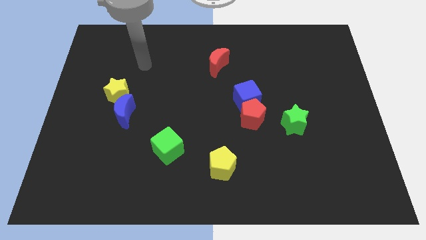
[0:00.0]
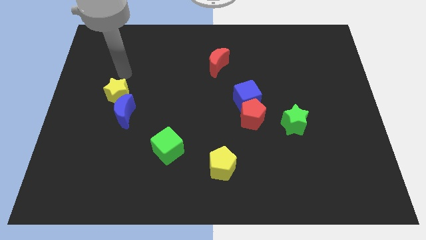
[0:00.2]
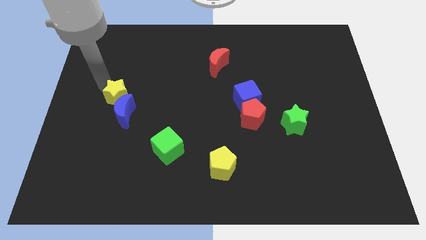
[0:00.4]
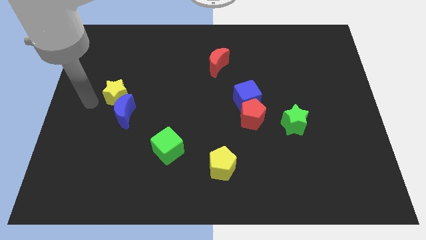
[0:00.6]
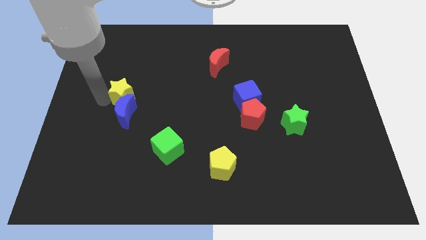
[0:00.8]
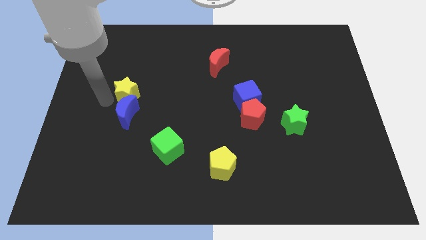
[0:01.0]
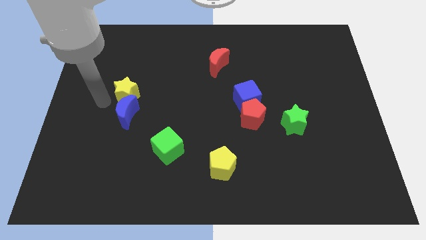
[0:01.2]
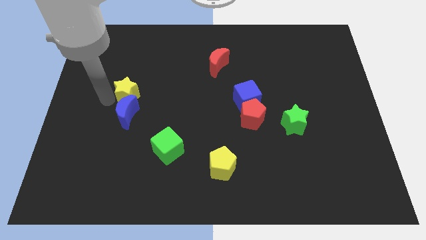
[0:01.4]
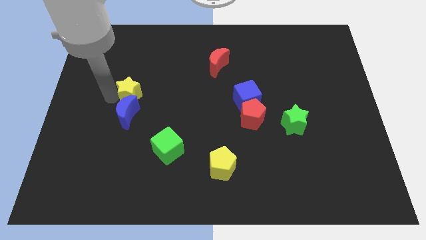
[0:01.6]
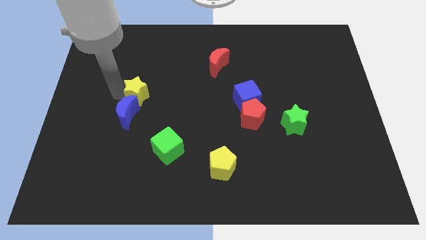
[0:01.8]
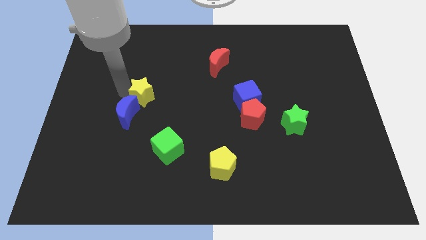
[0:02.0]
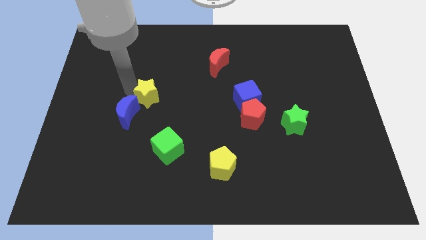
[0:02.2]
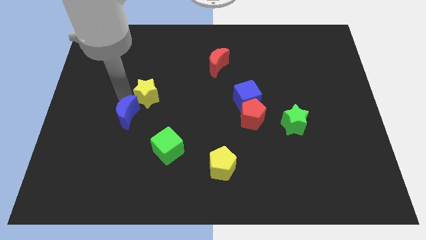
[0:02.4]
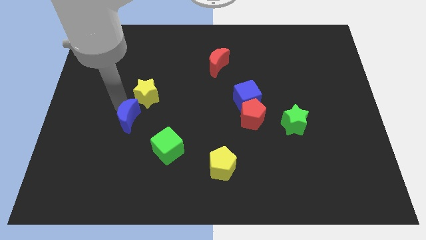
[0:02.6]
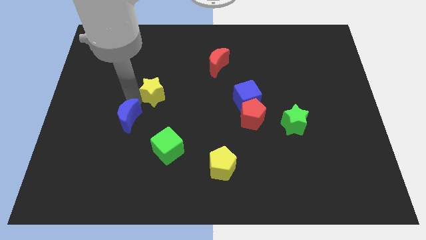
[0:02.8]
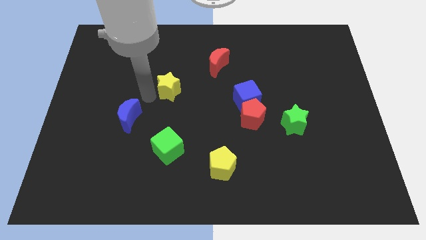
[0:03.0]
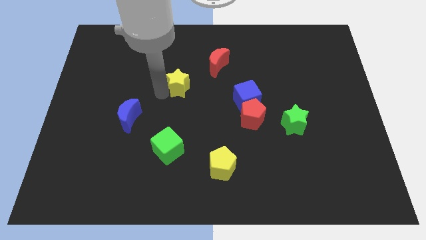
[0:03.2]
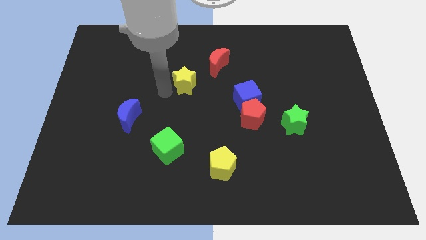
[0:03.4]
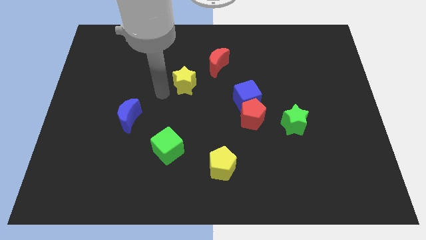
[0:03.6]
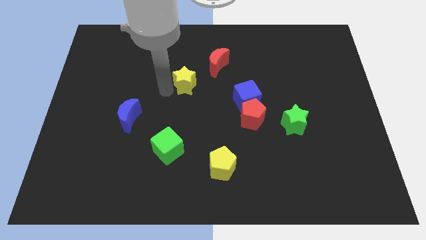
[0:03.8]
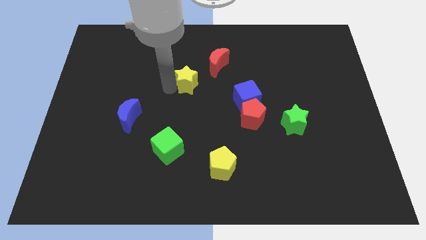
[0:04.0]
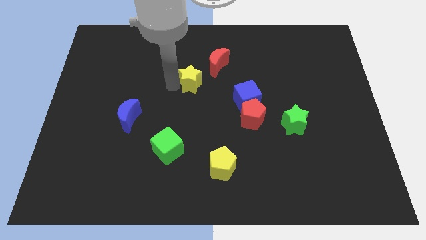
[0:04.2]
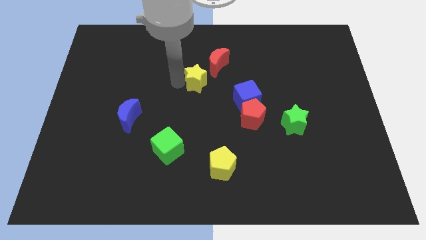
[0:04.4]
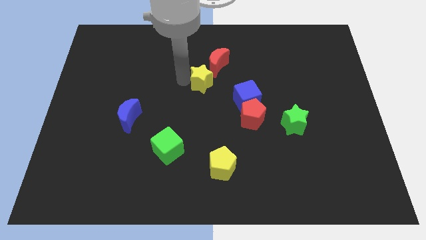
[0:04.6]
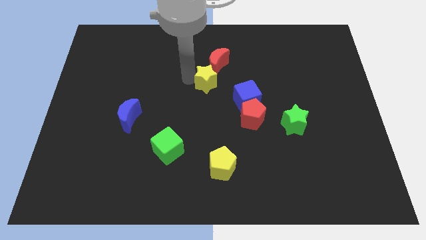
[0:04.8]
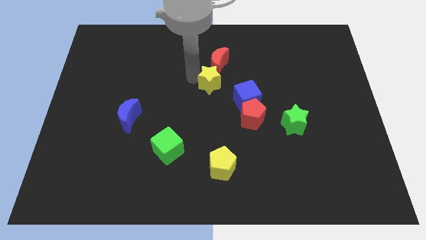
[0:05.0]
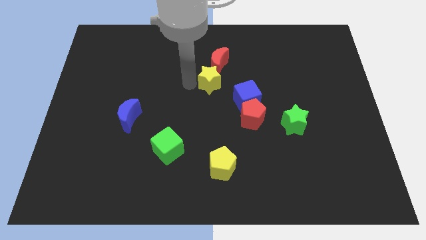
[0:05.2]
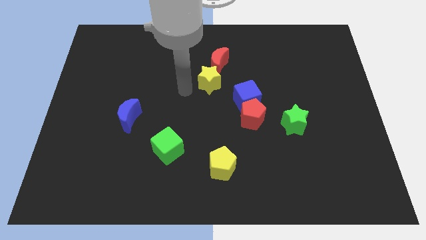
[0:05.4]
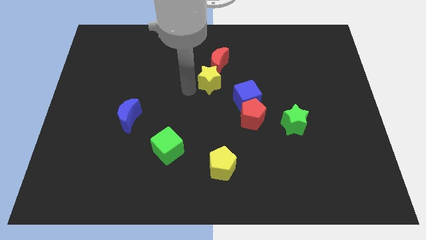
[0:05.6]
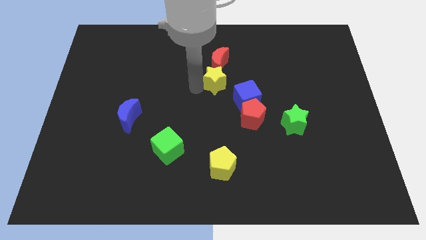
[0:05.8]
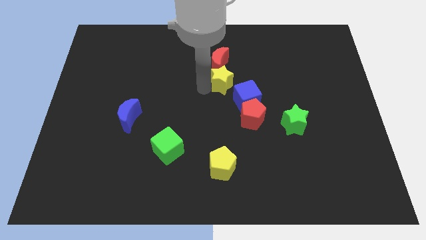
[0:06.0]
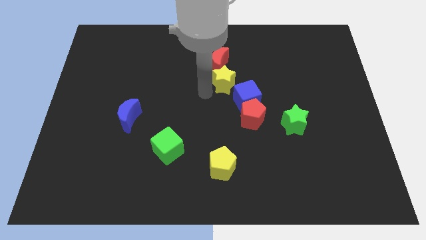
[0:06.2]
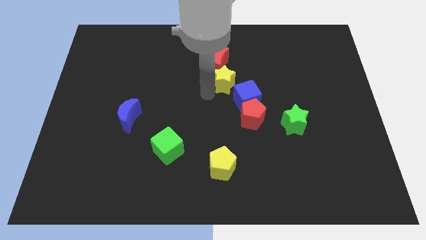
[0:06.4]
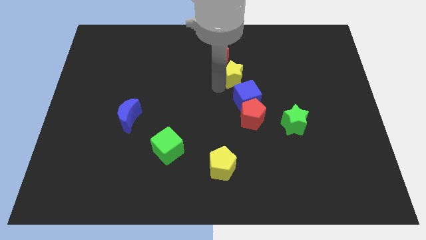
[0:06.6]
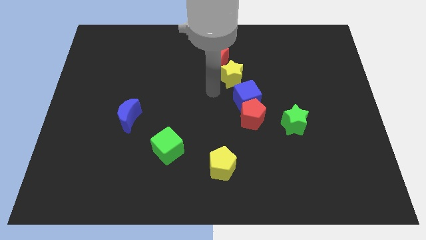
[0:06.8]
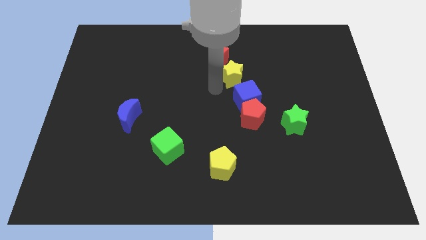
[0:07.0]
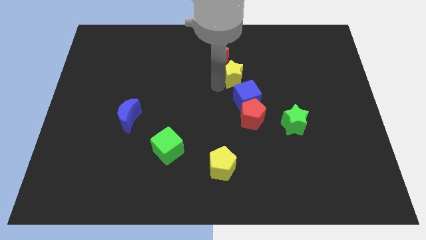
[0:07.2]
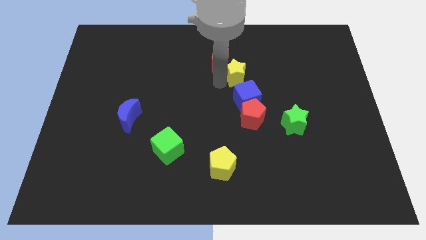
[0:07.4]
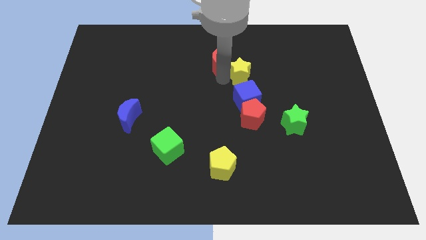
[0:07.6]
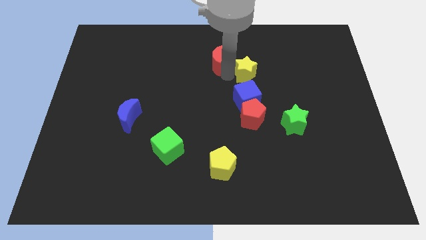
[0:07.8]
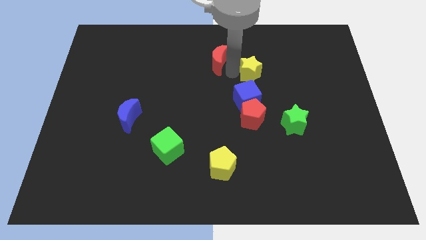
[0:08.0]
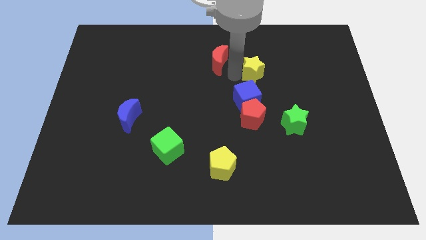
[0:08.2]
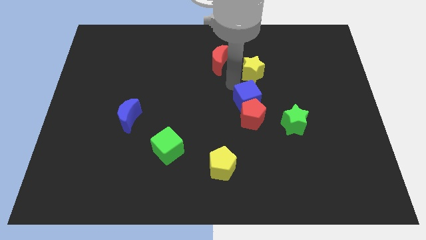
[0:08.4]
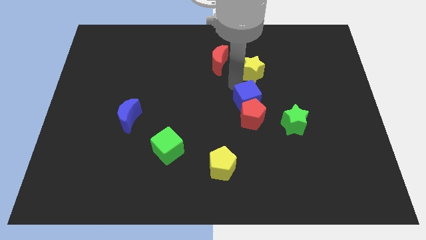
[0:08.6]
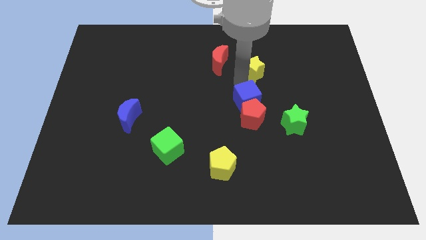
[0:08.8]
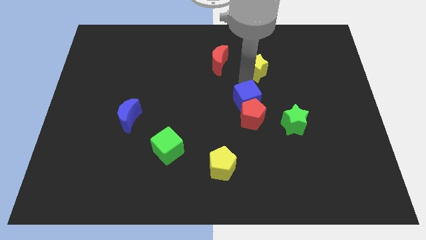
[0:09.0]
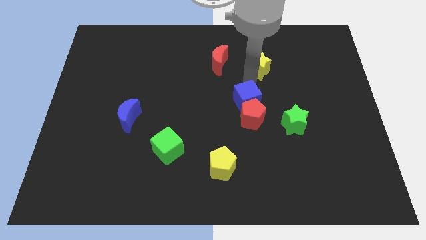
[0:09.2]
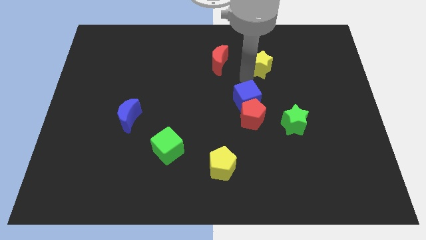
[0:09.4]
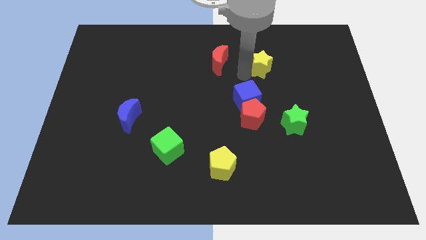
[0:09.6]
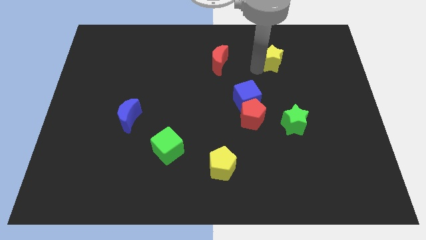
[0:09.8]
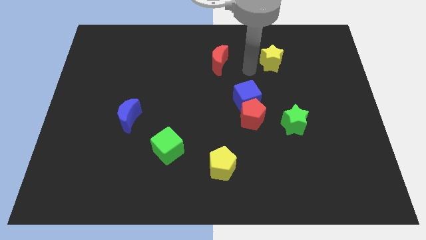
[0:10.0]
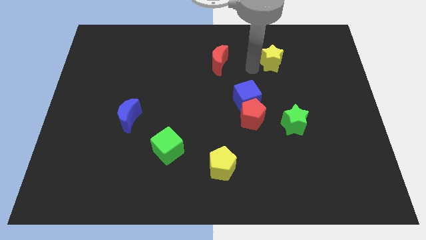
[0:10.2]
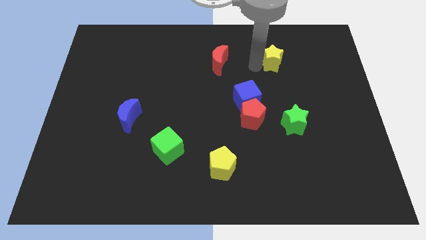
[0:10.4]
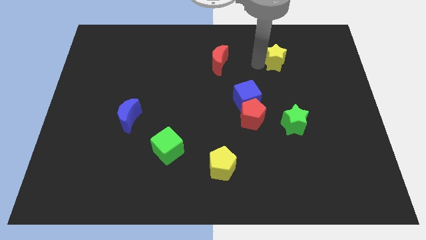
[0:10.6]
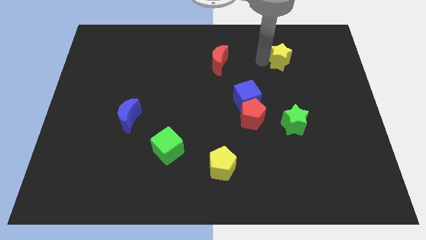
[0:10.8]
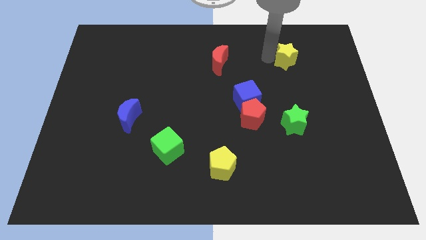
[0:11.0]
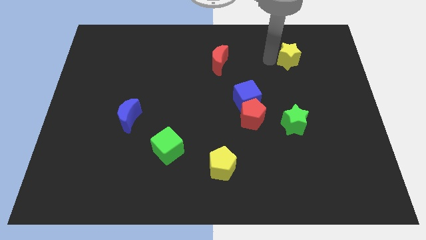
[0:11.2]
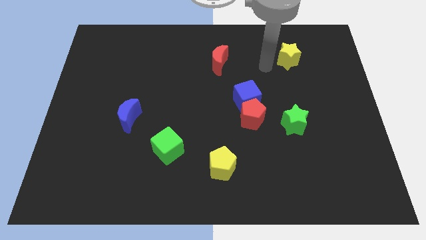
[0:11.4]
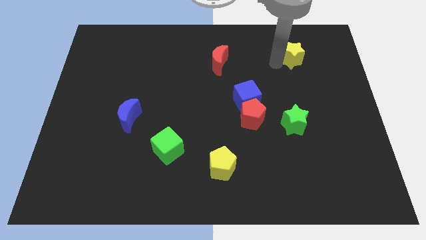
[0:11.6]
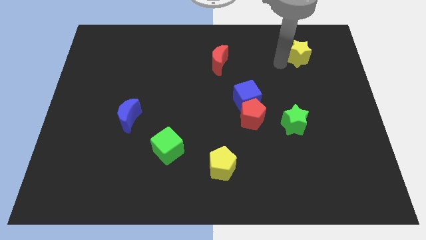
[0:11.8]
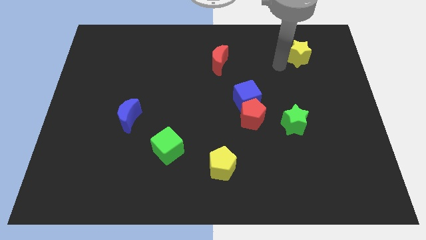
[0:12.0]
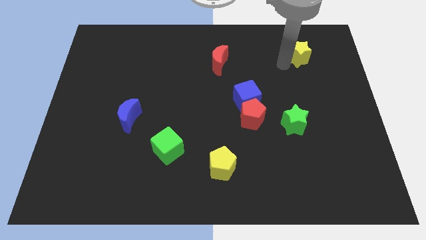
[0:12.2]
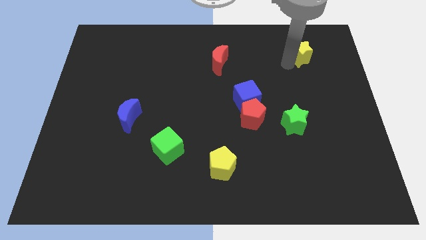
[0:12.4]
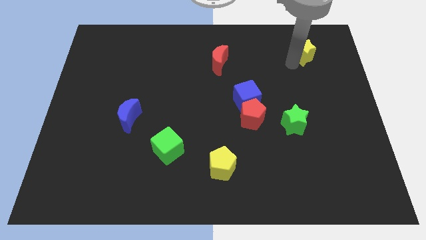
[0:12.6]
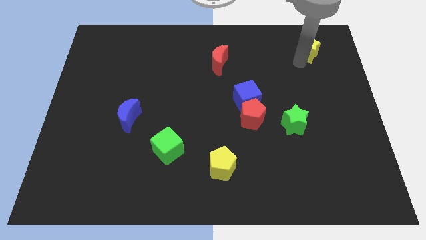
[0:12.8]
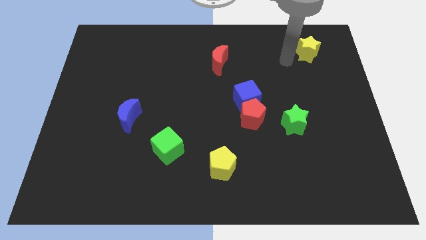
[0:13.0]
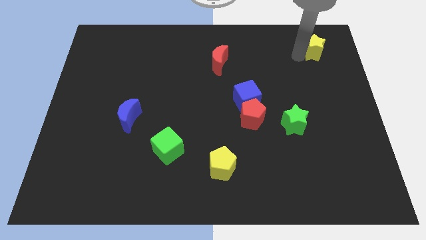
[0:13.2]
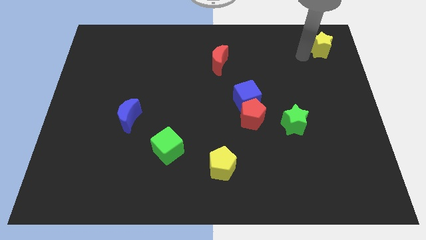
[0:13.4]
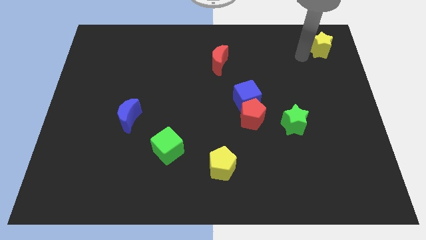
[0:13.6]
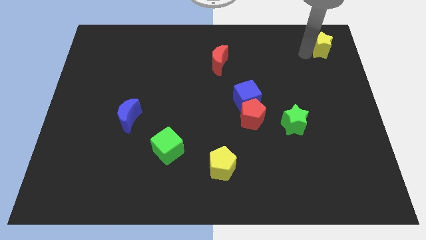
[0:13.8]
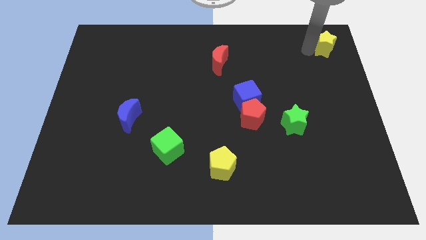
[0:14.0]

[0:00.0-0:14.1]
push the yellow star to the top right corner

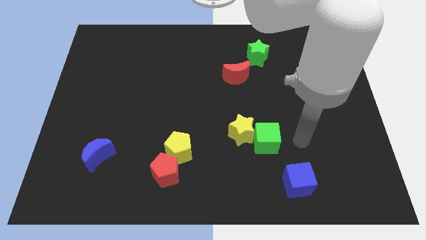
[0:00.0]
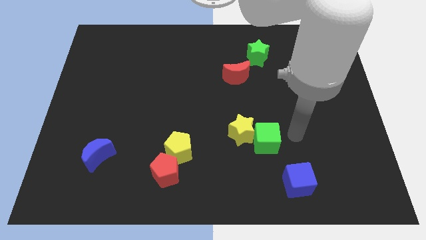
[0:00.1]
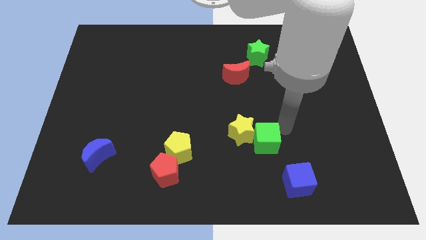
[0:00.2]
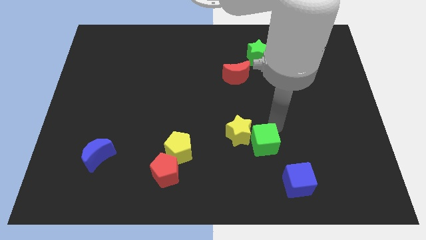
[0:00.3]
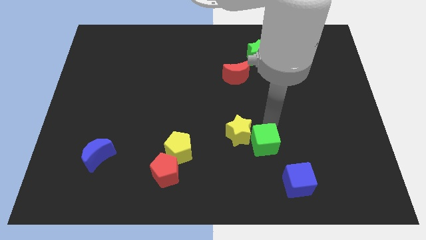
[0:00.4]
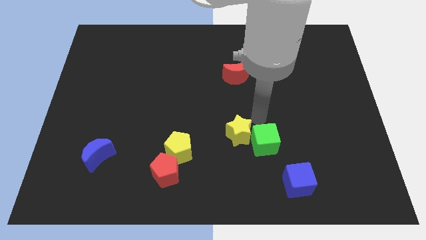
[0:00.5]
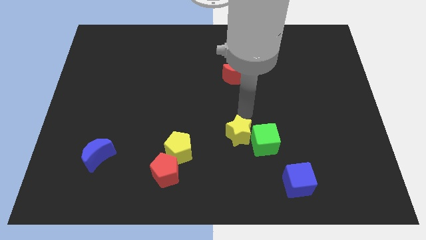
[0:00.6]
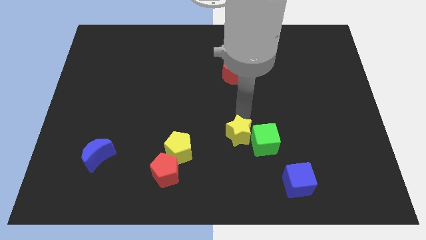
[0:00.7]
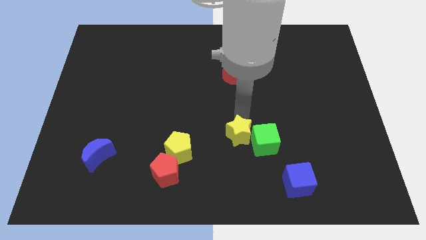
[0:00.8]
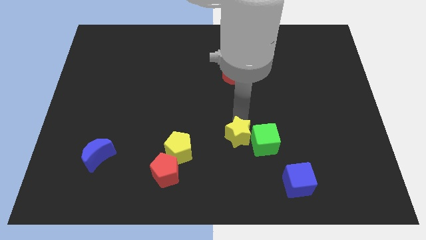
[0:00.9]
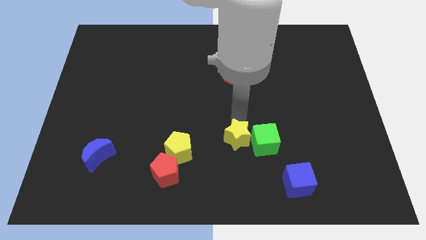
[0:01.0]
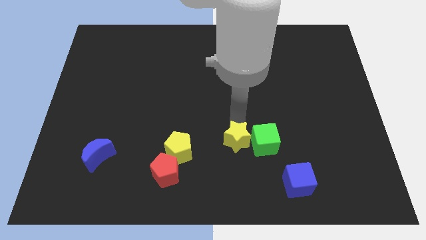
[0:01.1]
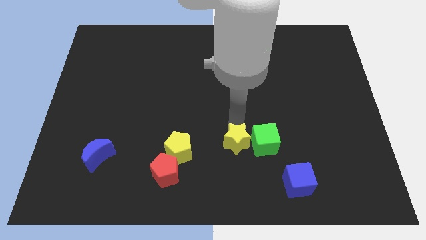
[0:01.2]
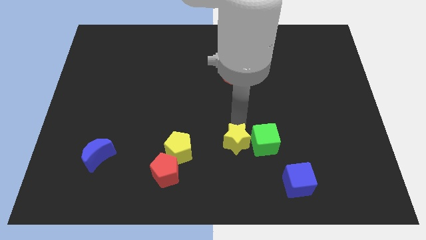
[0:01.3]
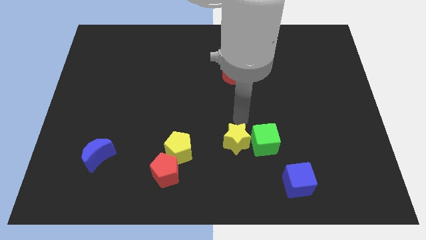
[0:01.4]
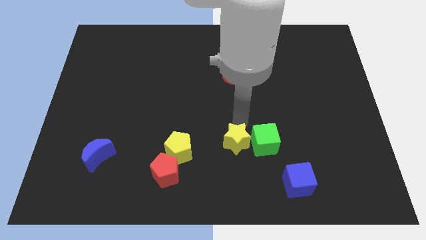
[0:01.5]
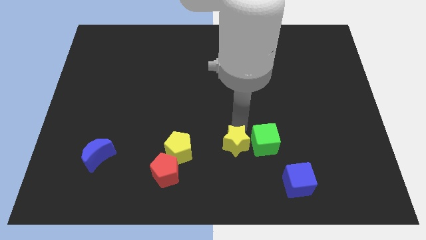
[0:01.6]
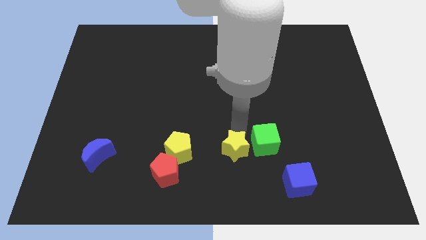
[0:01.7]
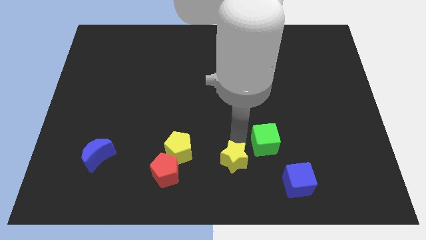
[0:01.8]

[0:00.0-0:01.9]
put the yellow star to the bottom
